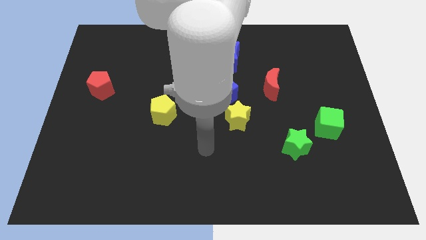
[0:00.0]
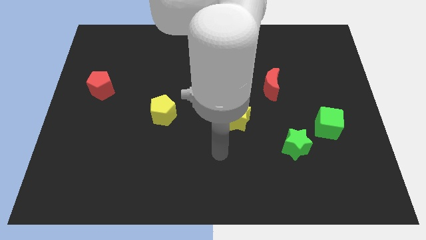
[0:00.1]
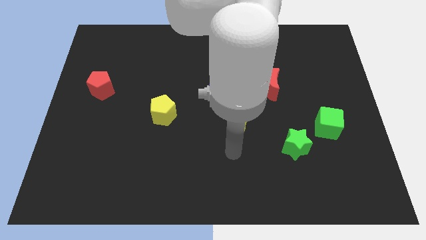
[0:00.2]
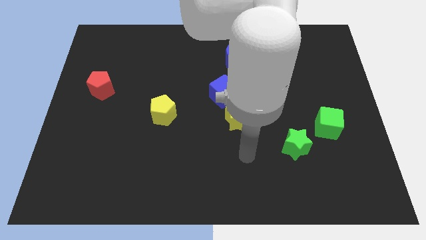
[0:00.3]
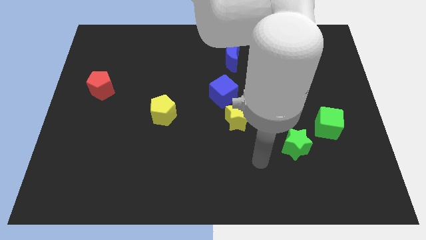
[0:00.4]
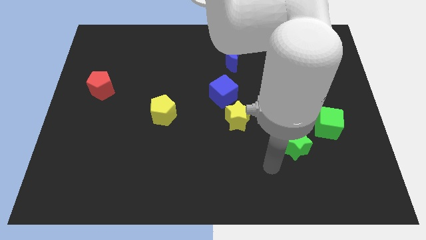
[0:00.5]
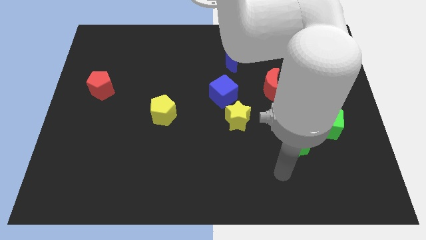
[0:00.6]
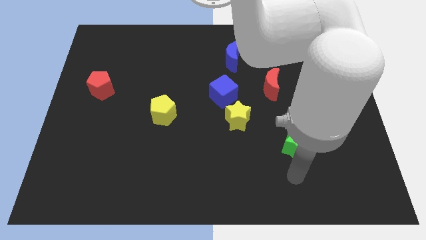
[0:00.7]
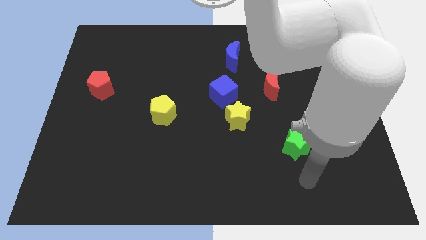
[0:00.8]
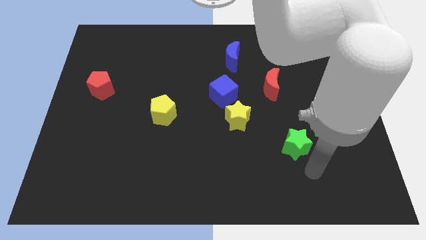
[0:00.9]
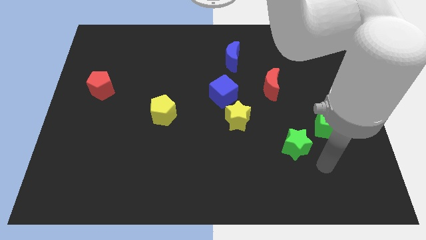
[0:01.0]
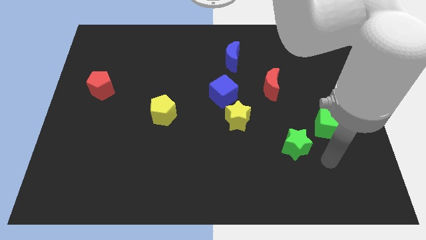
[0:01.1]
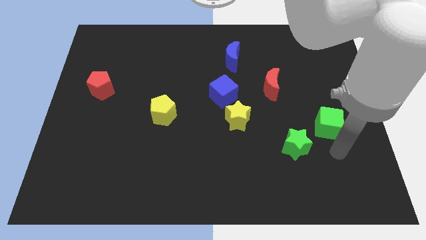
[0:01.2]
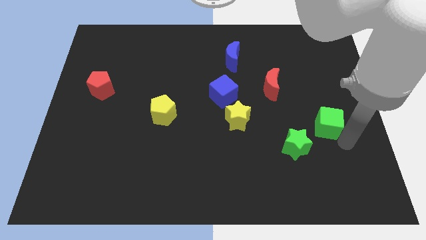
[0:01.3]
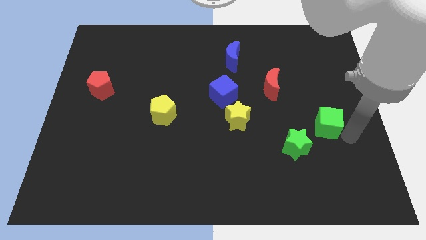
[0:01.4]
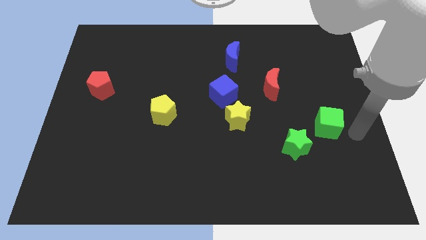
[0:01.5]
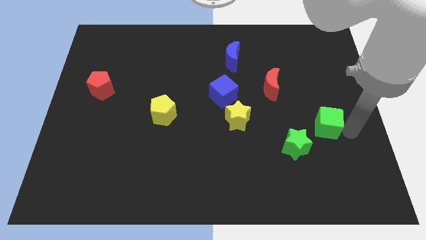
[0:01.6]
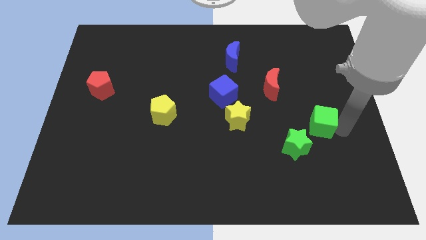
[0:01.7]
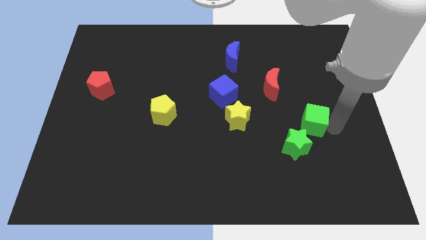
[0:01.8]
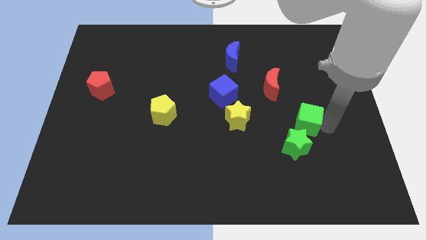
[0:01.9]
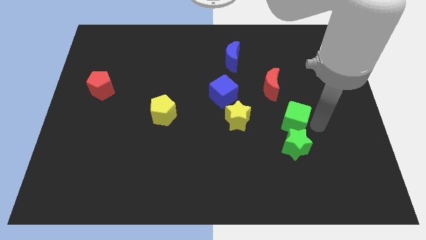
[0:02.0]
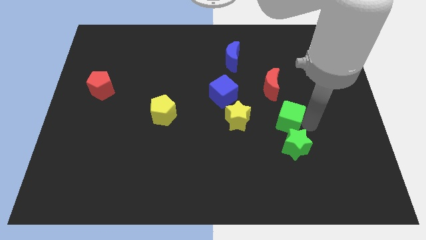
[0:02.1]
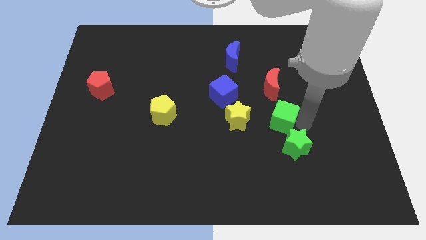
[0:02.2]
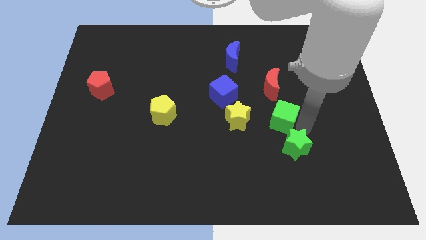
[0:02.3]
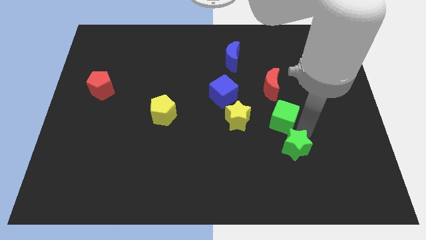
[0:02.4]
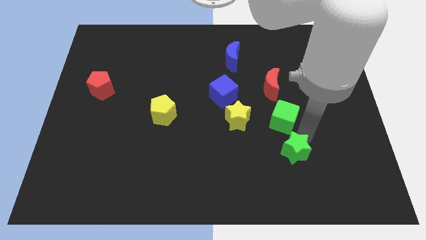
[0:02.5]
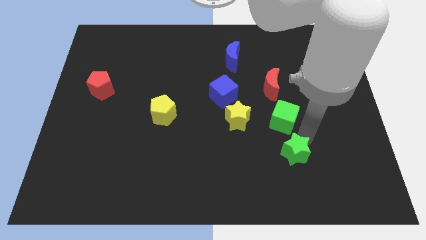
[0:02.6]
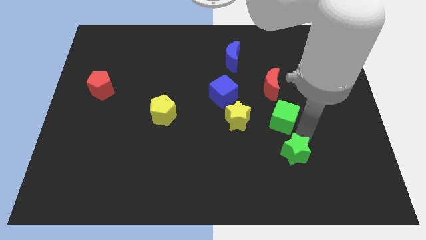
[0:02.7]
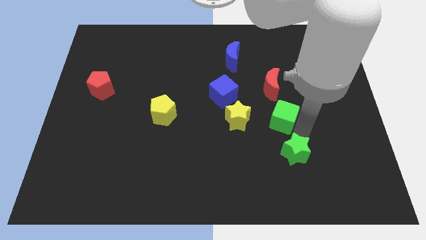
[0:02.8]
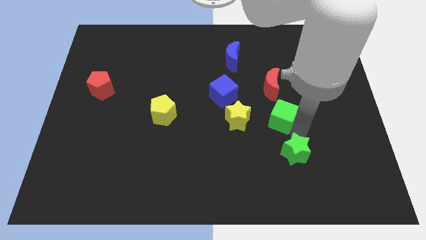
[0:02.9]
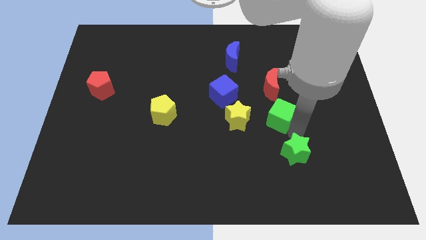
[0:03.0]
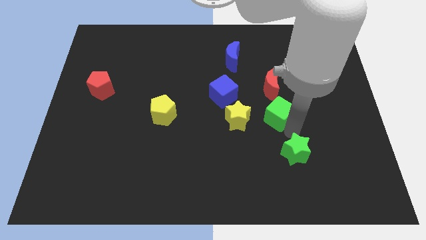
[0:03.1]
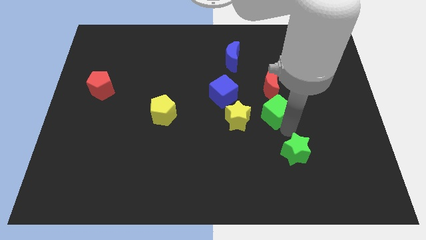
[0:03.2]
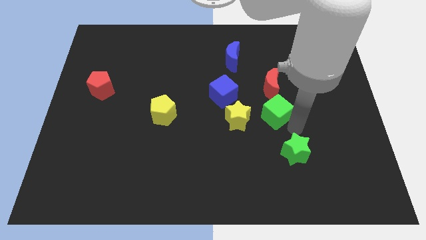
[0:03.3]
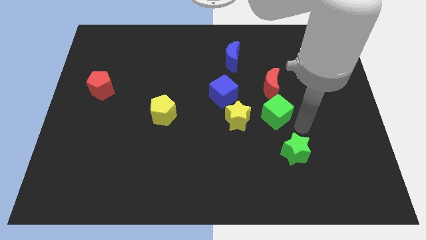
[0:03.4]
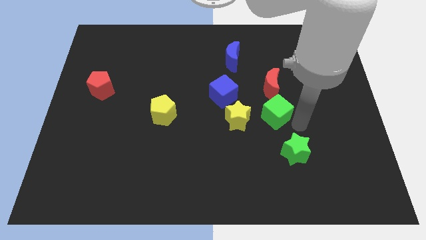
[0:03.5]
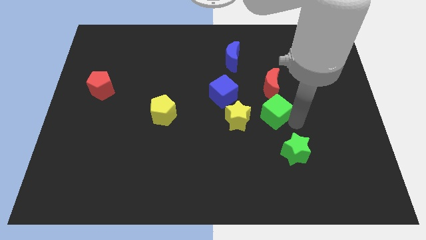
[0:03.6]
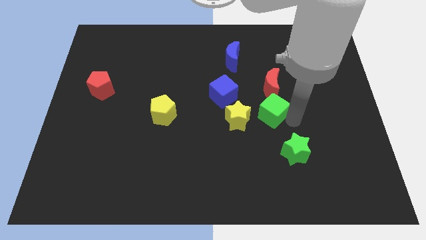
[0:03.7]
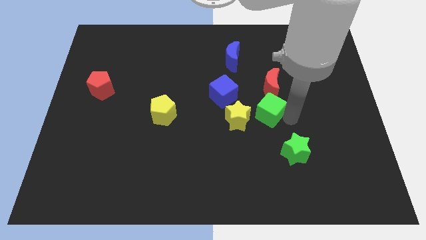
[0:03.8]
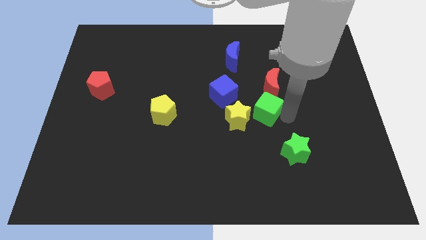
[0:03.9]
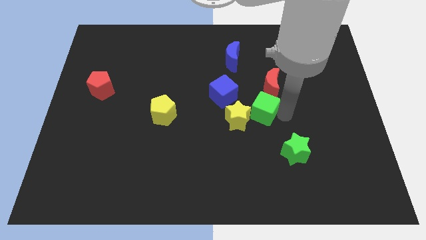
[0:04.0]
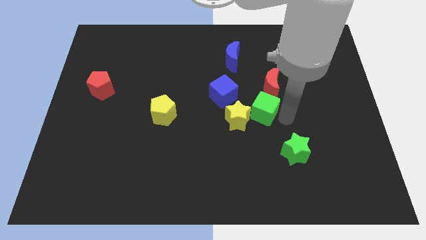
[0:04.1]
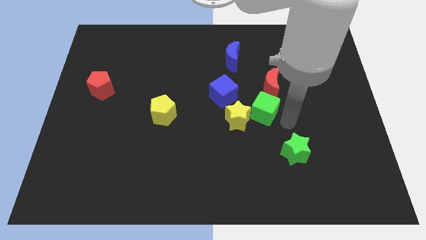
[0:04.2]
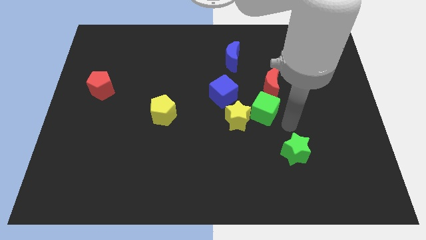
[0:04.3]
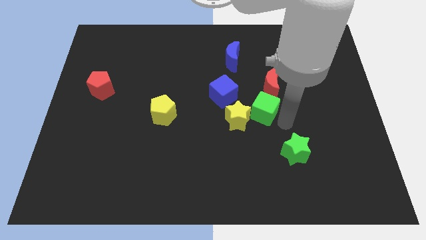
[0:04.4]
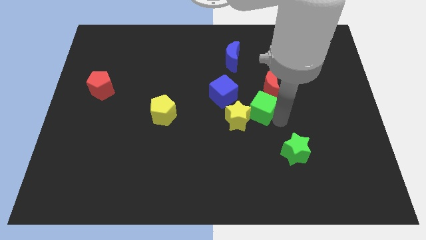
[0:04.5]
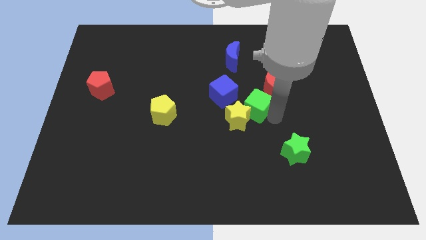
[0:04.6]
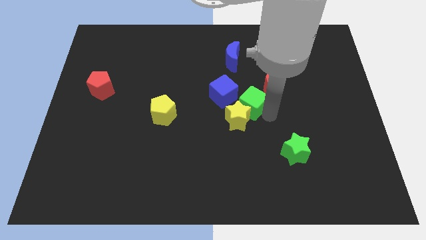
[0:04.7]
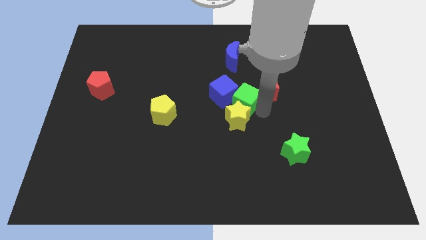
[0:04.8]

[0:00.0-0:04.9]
put the green cube close to the blue cube

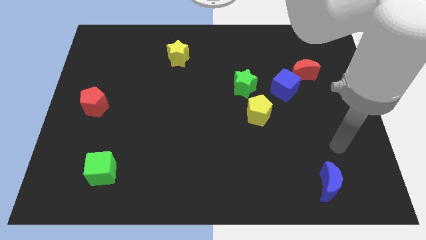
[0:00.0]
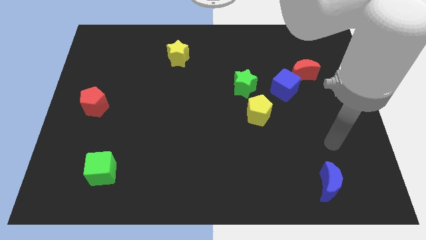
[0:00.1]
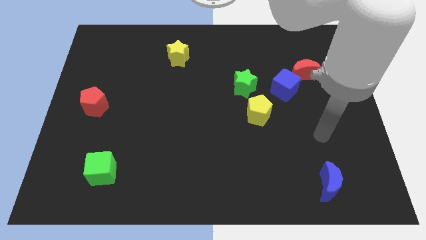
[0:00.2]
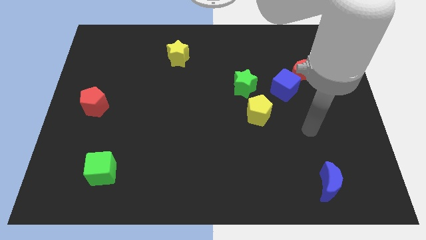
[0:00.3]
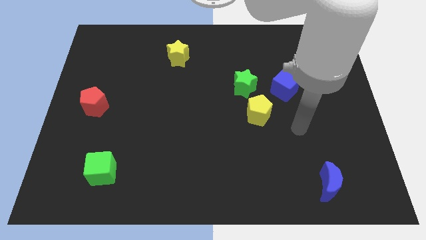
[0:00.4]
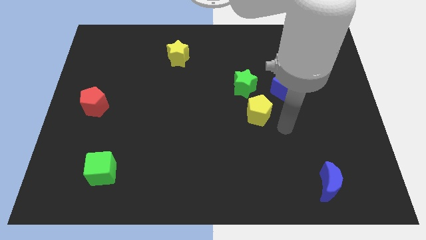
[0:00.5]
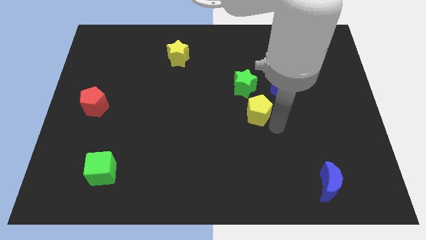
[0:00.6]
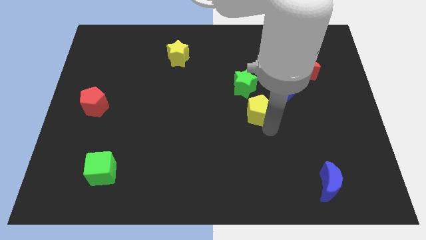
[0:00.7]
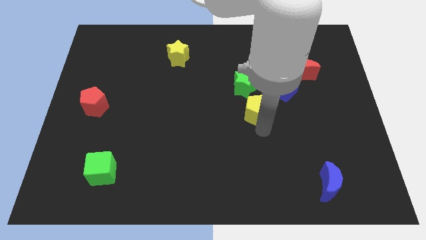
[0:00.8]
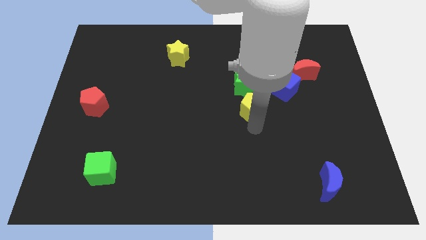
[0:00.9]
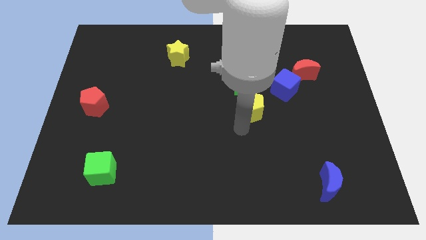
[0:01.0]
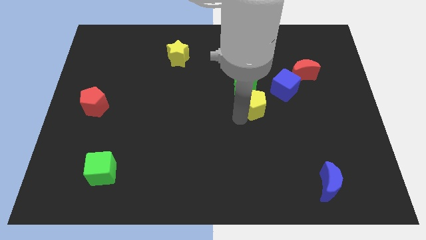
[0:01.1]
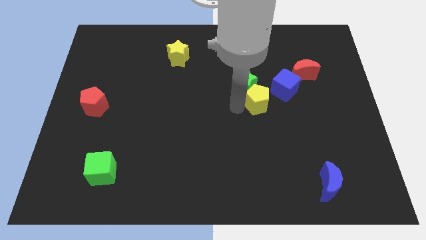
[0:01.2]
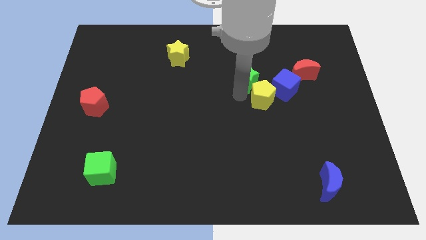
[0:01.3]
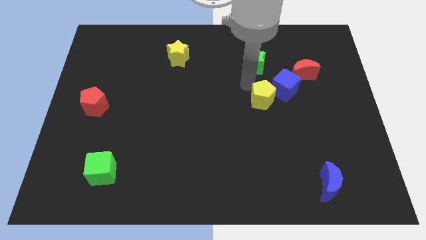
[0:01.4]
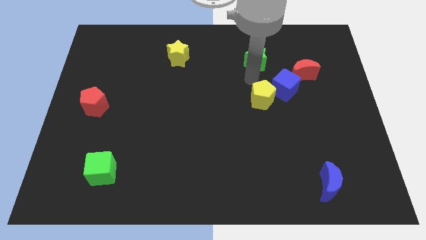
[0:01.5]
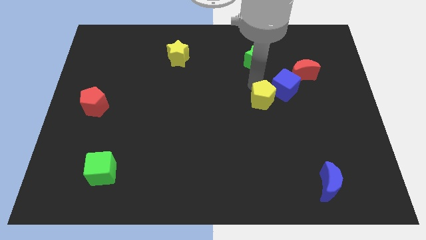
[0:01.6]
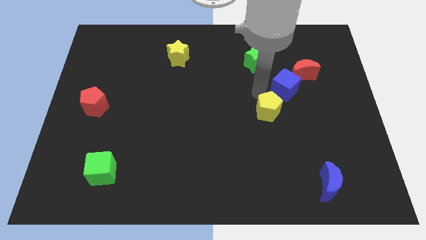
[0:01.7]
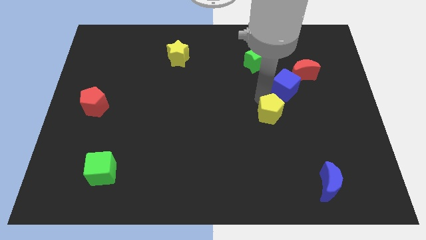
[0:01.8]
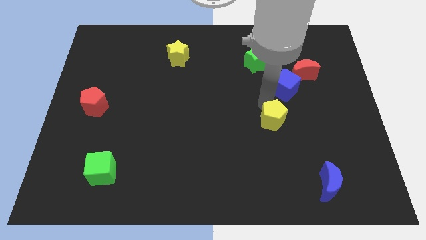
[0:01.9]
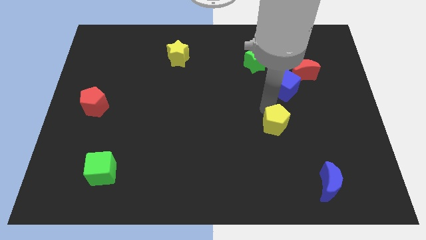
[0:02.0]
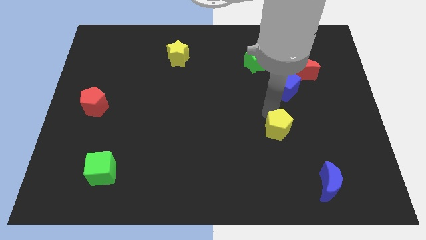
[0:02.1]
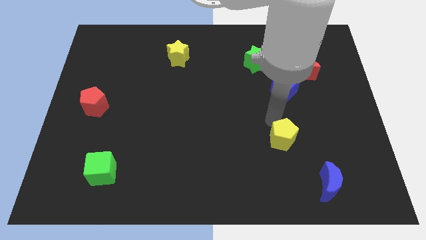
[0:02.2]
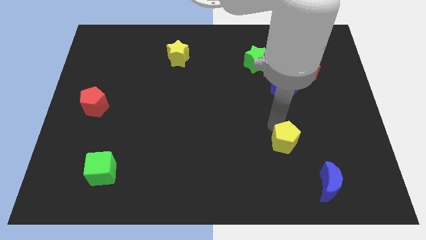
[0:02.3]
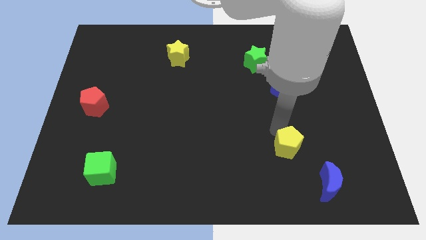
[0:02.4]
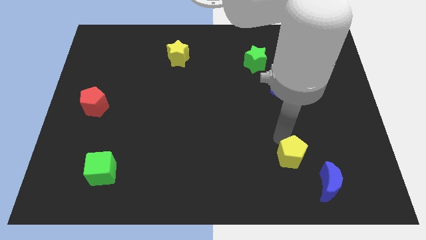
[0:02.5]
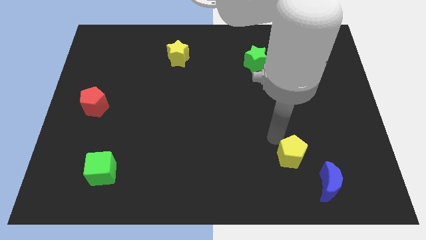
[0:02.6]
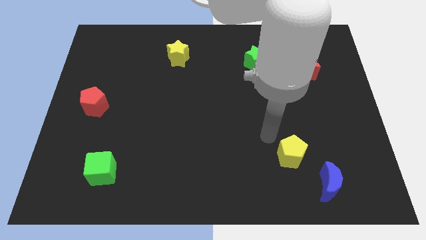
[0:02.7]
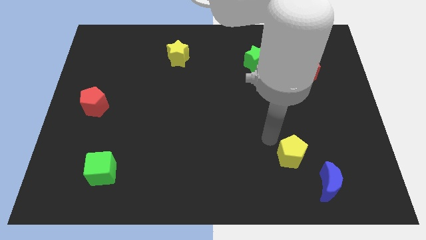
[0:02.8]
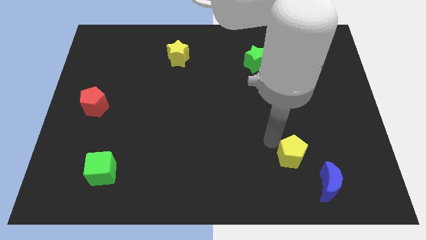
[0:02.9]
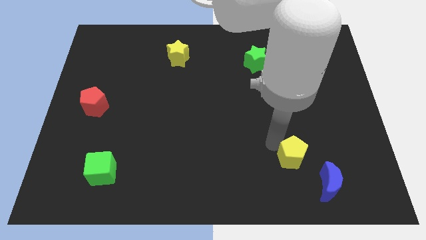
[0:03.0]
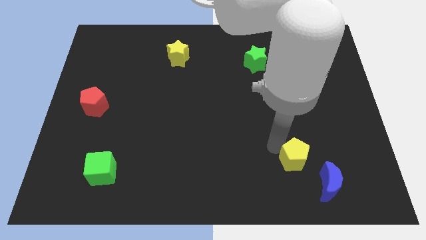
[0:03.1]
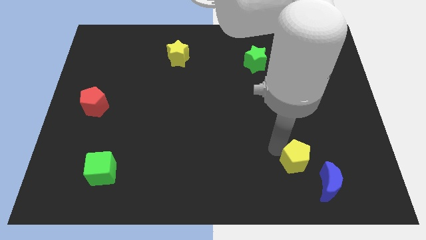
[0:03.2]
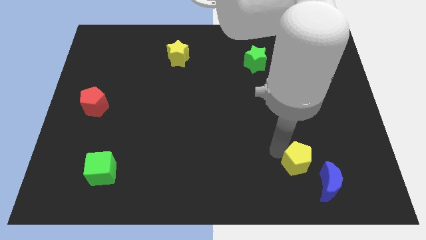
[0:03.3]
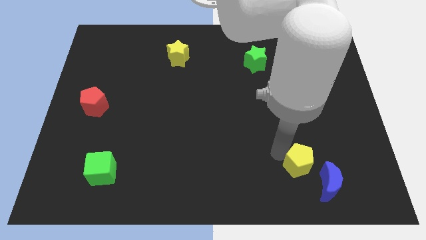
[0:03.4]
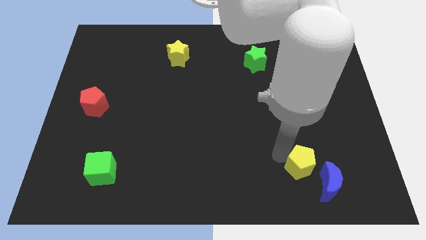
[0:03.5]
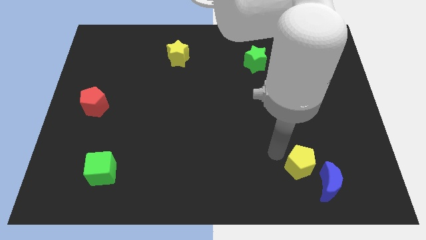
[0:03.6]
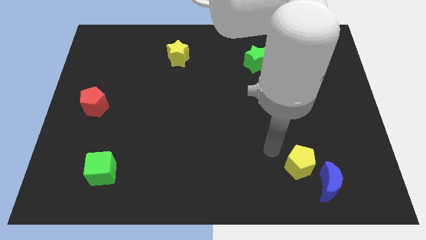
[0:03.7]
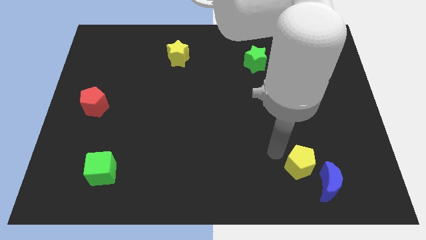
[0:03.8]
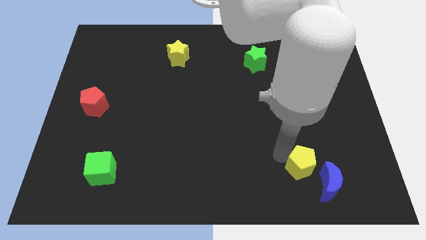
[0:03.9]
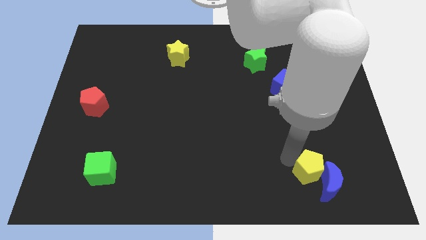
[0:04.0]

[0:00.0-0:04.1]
move the yellow pentagon next to the blue moon
